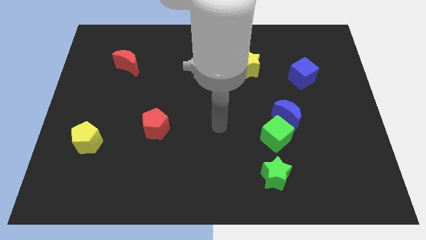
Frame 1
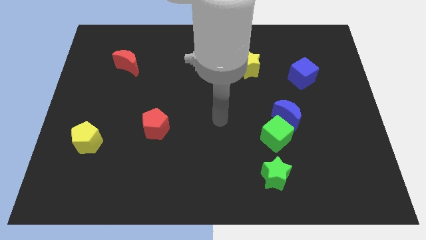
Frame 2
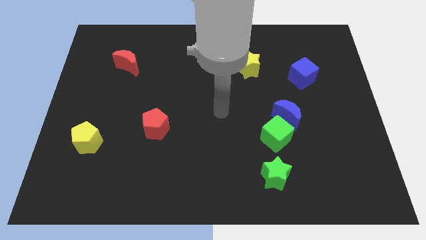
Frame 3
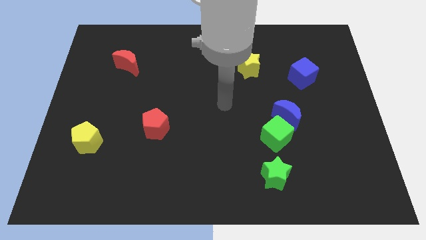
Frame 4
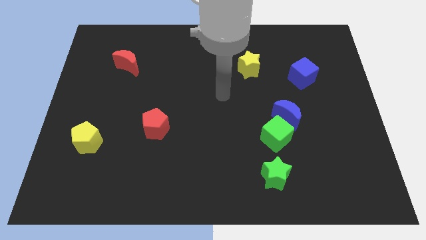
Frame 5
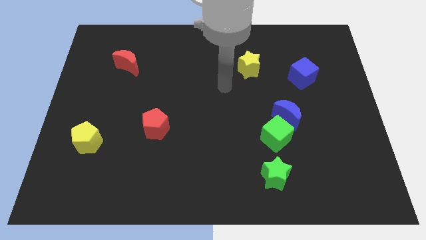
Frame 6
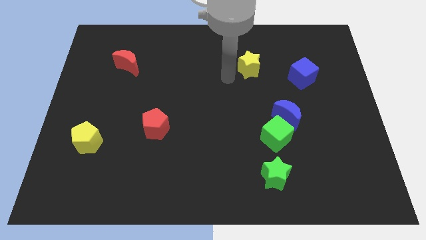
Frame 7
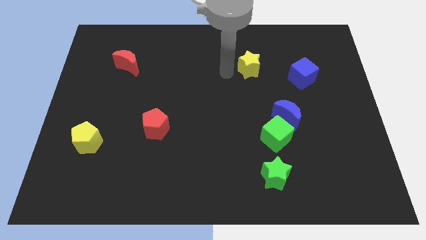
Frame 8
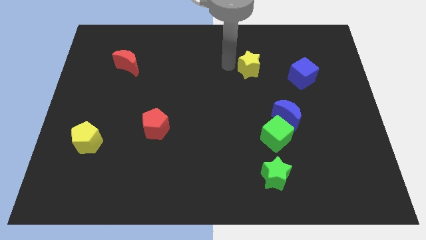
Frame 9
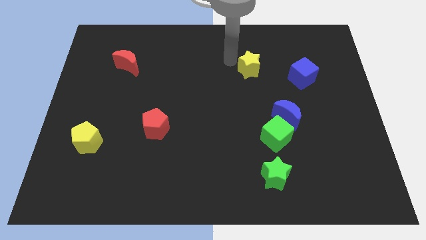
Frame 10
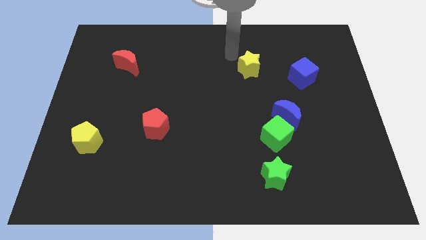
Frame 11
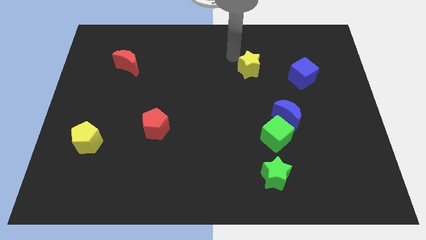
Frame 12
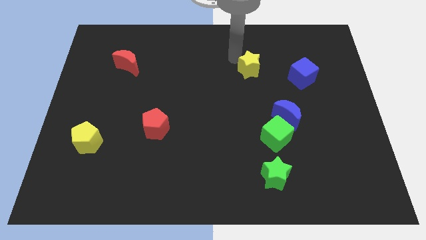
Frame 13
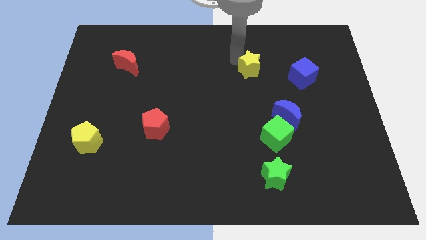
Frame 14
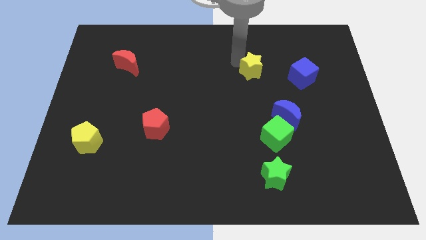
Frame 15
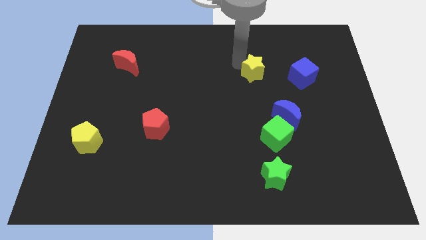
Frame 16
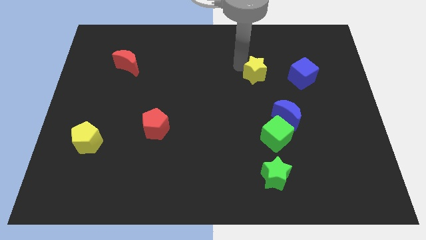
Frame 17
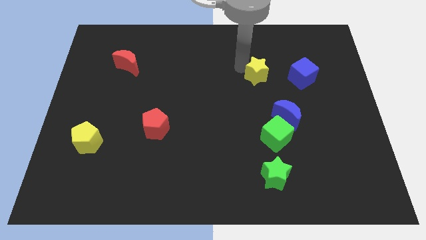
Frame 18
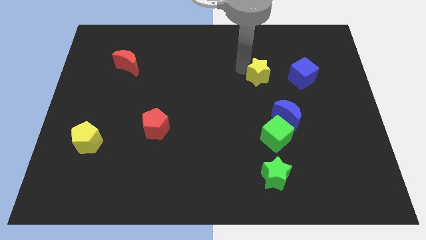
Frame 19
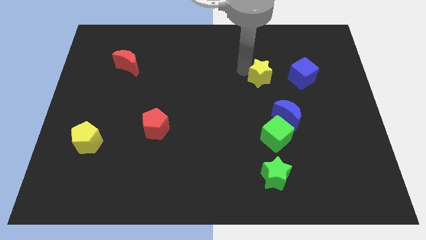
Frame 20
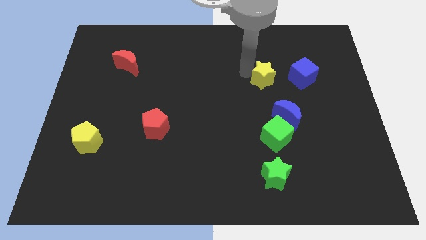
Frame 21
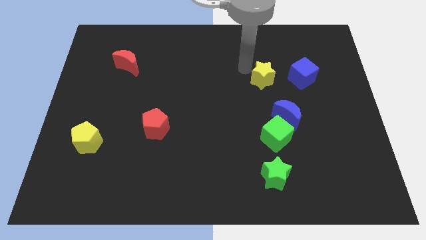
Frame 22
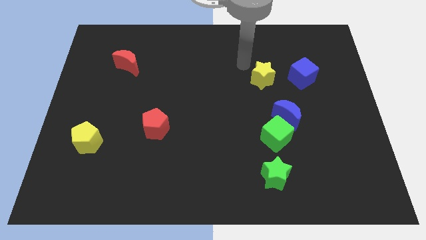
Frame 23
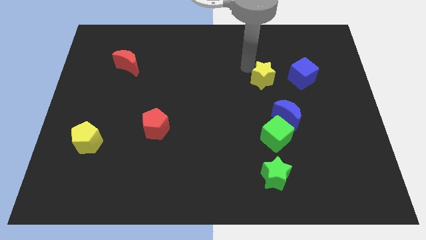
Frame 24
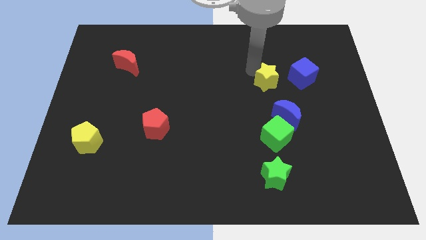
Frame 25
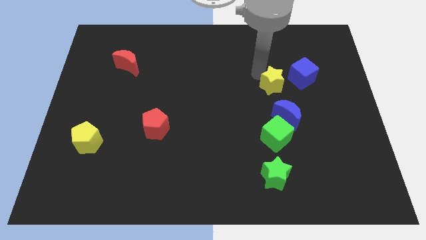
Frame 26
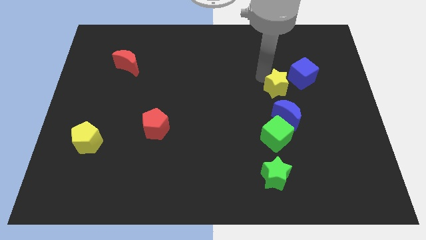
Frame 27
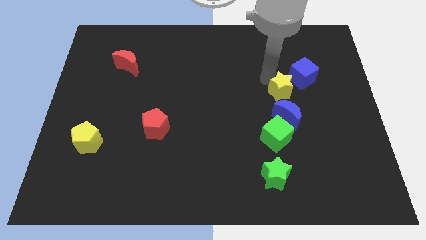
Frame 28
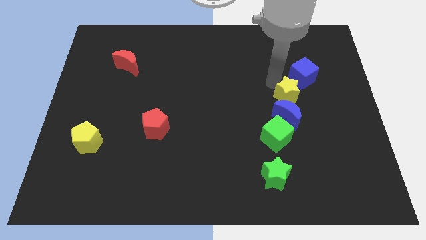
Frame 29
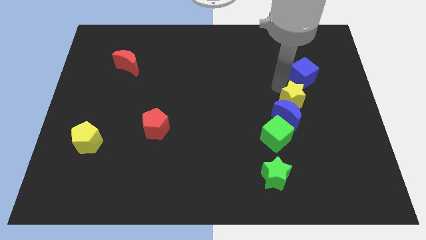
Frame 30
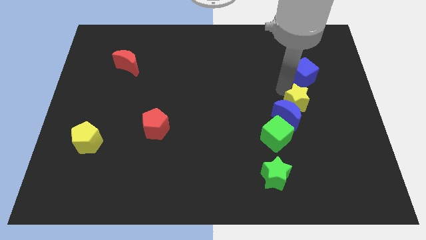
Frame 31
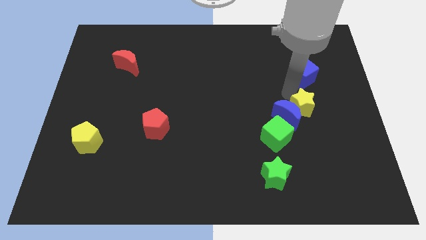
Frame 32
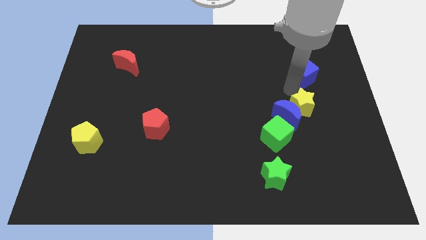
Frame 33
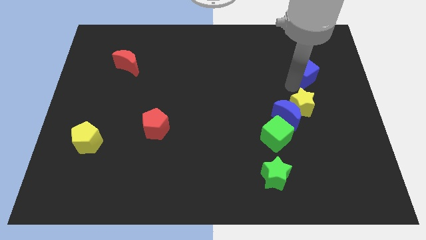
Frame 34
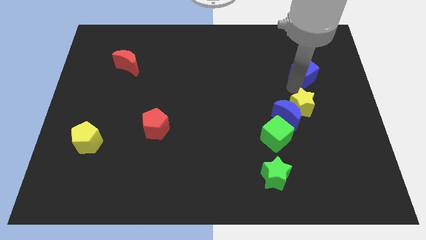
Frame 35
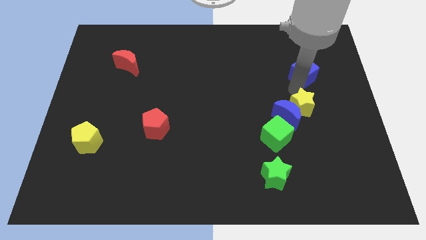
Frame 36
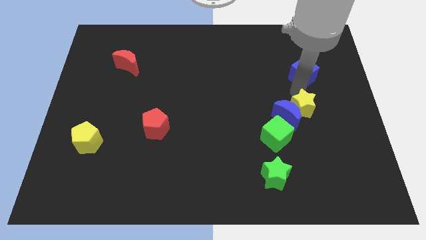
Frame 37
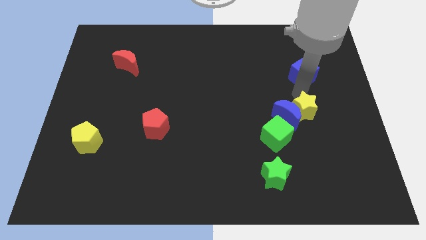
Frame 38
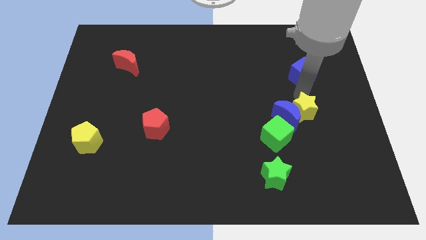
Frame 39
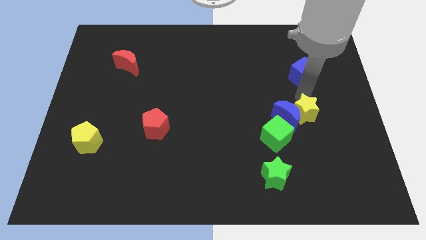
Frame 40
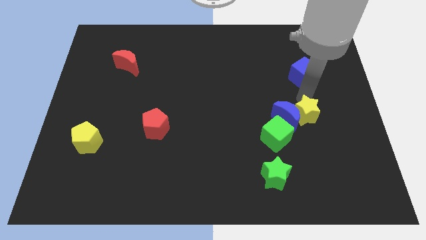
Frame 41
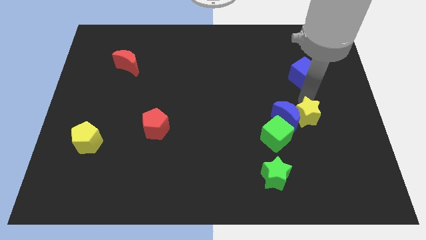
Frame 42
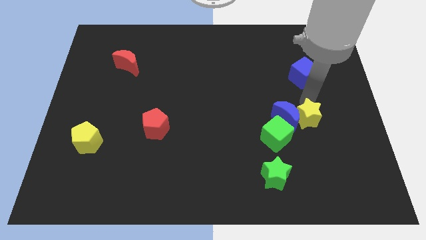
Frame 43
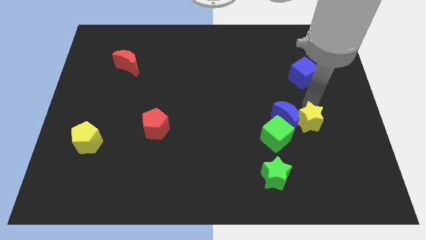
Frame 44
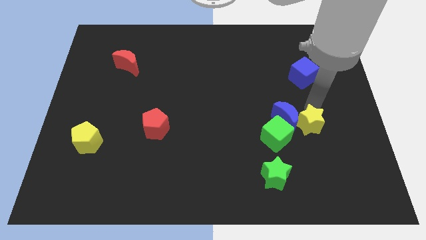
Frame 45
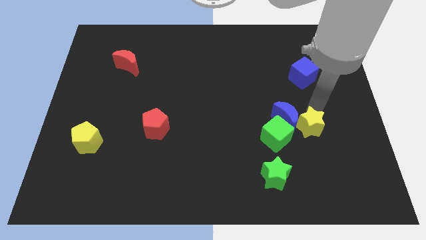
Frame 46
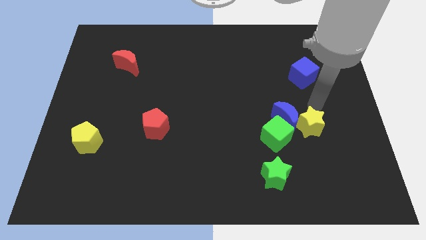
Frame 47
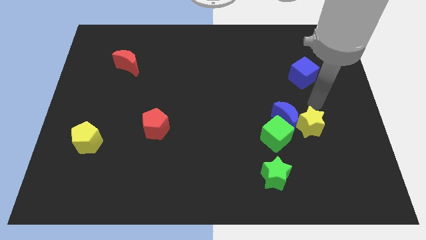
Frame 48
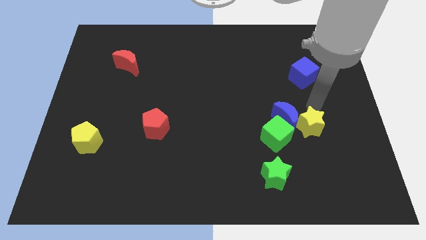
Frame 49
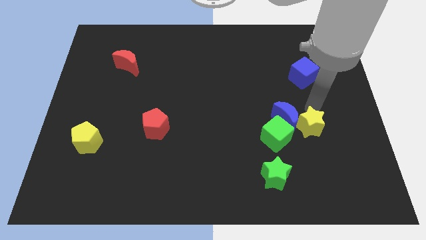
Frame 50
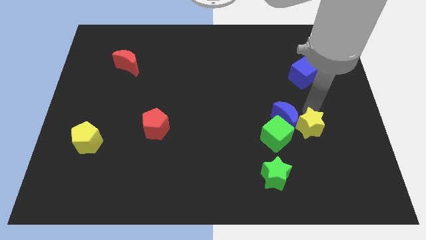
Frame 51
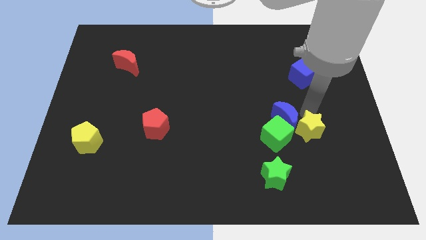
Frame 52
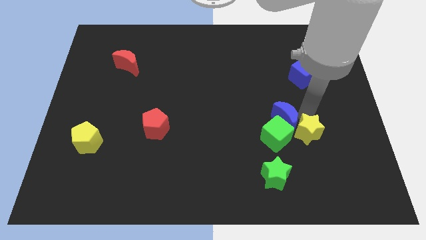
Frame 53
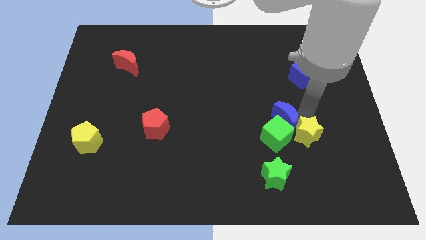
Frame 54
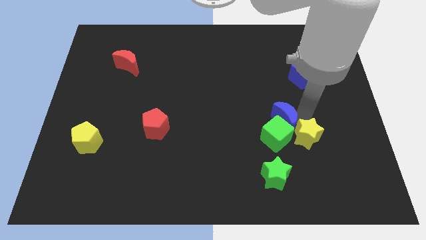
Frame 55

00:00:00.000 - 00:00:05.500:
move the yellow star to the bottom right side of the green cube

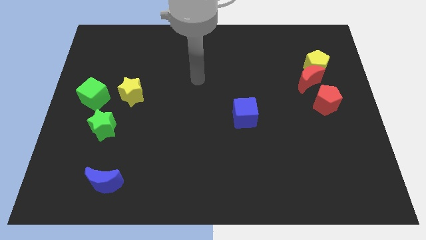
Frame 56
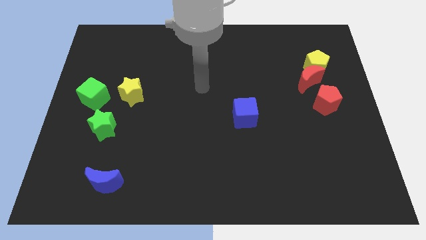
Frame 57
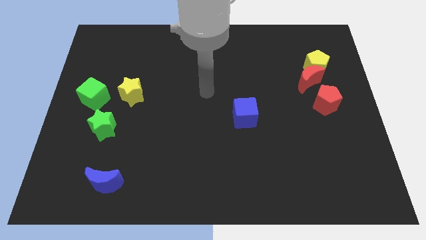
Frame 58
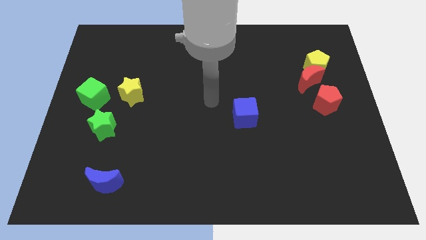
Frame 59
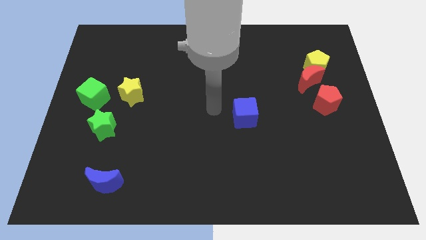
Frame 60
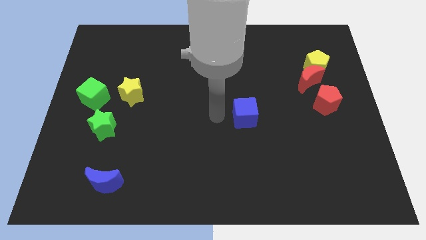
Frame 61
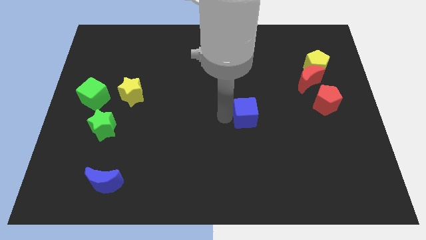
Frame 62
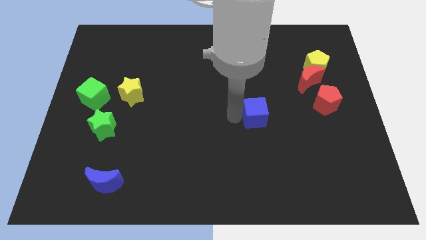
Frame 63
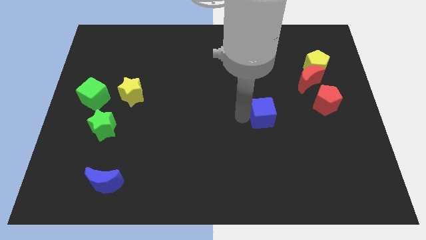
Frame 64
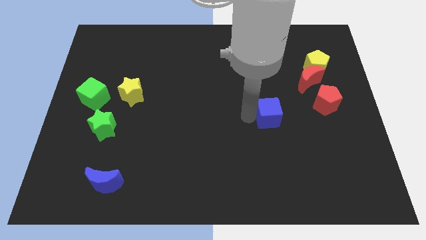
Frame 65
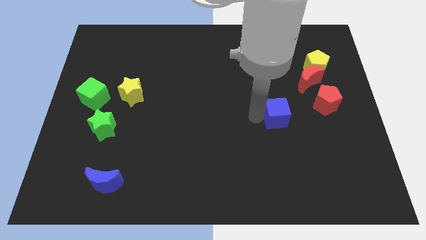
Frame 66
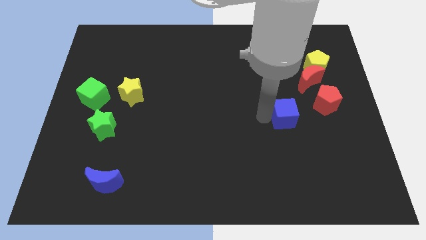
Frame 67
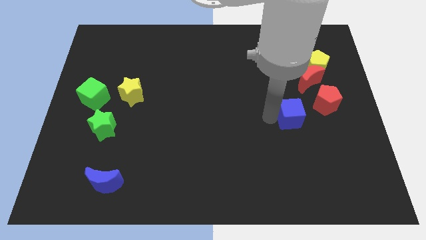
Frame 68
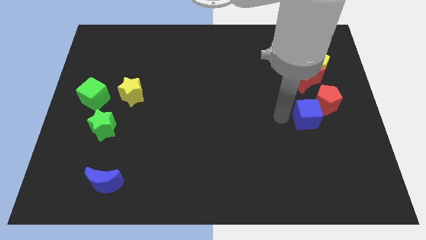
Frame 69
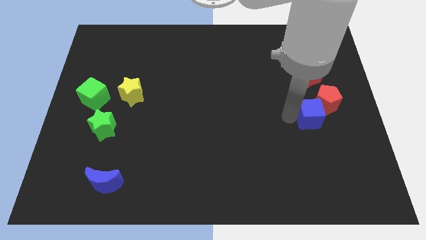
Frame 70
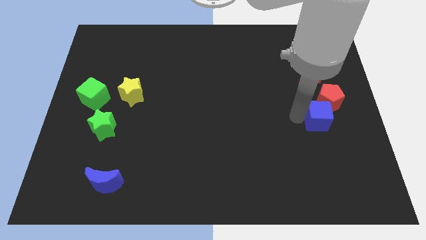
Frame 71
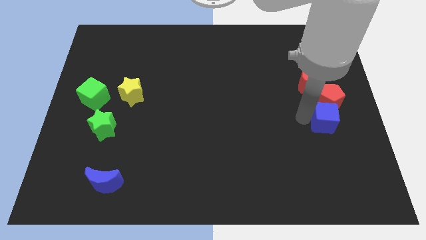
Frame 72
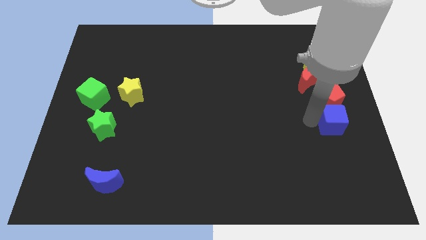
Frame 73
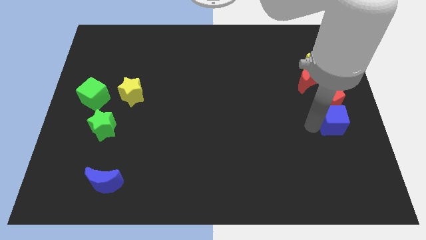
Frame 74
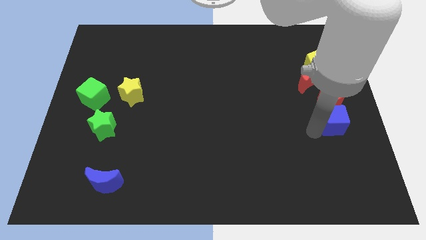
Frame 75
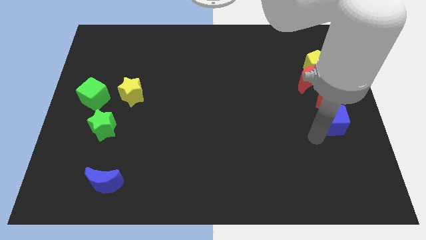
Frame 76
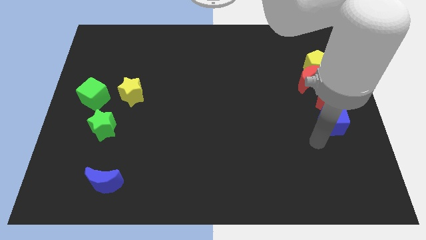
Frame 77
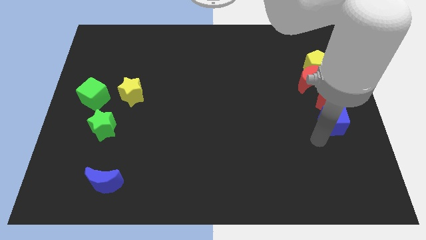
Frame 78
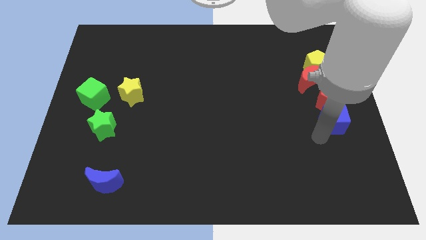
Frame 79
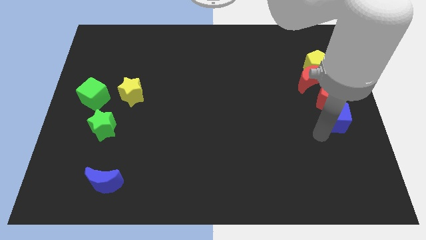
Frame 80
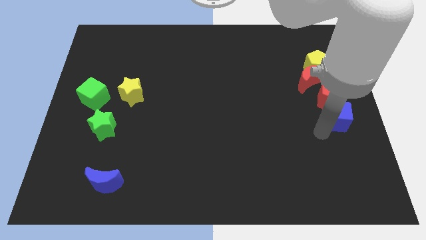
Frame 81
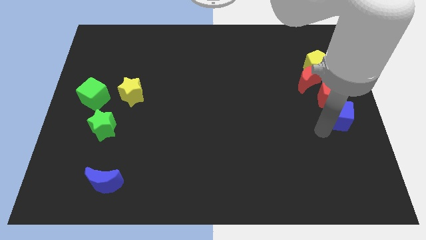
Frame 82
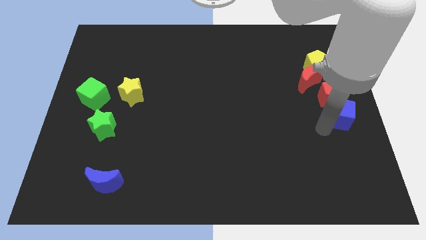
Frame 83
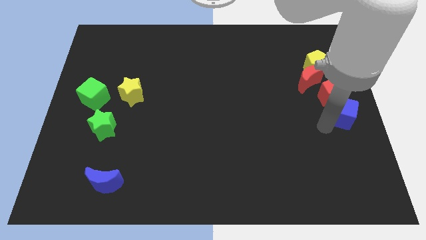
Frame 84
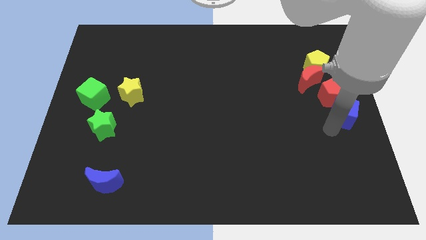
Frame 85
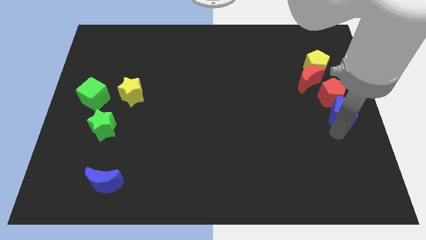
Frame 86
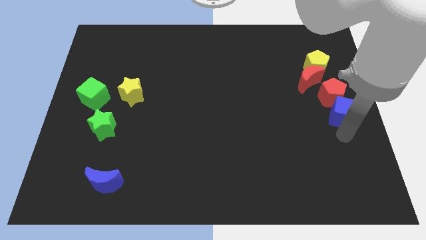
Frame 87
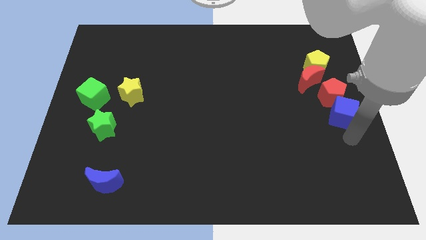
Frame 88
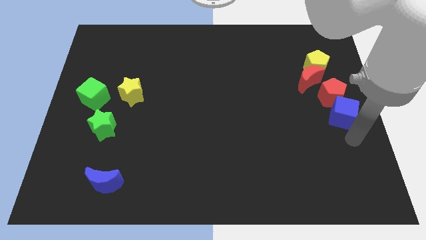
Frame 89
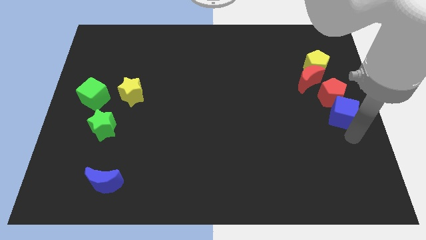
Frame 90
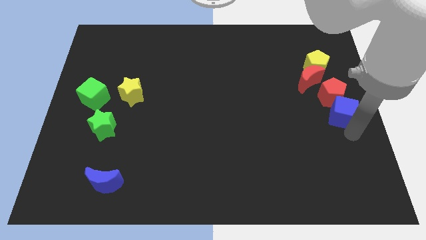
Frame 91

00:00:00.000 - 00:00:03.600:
push the blue cube to the bottom right of the red moon
